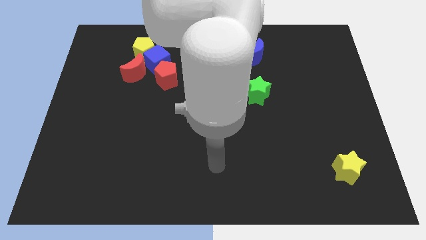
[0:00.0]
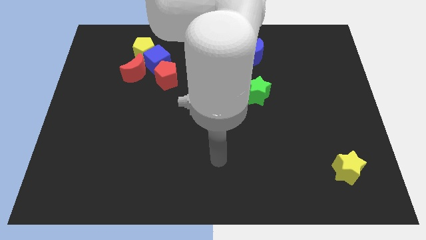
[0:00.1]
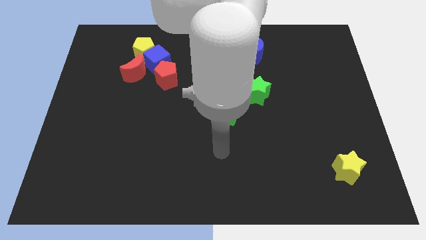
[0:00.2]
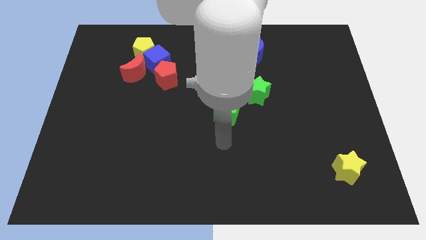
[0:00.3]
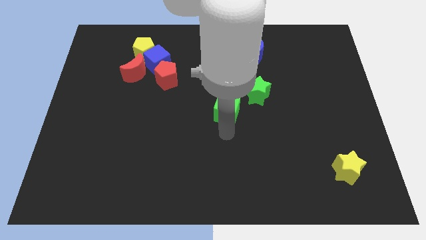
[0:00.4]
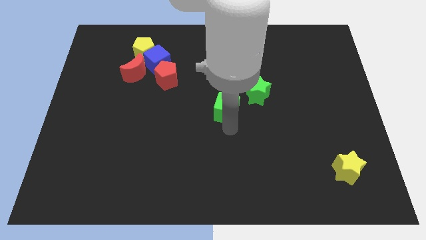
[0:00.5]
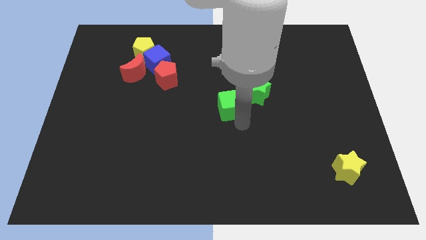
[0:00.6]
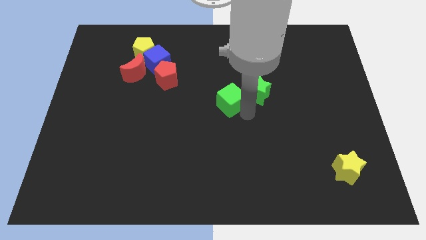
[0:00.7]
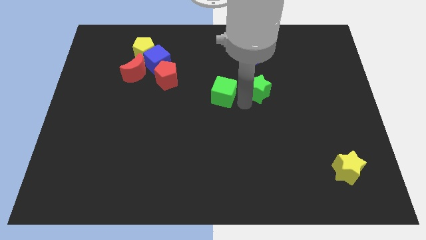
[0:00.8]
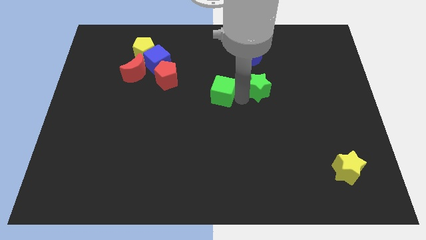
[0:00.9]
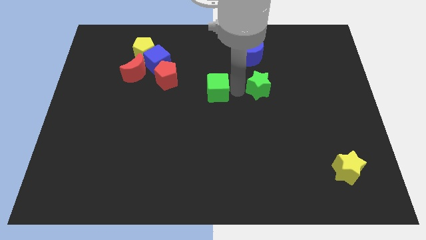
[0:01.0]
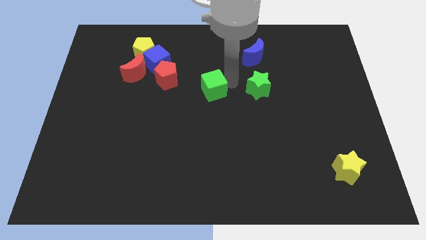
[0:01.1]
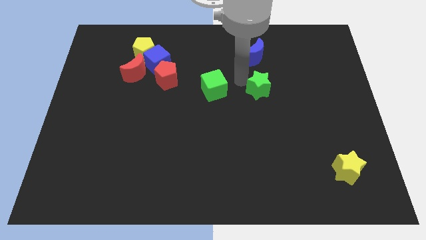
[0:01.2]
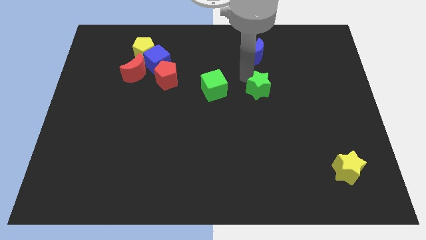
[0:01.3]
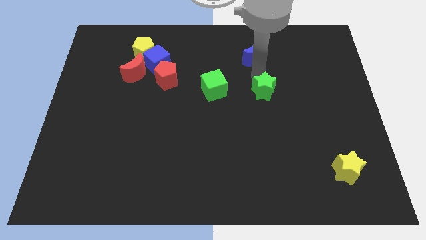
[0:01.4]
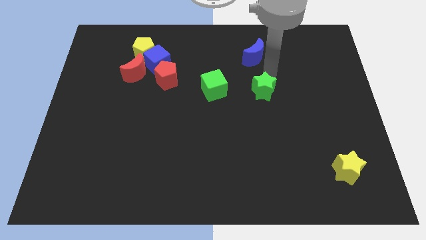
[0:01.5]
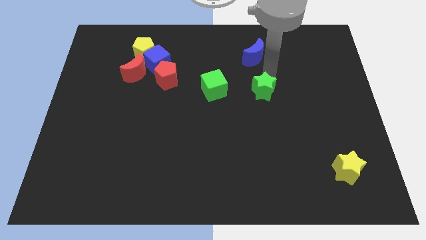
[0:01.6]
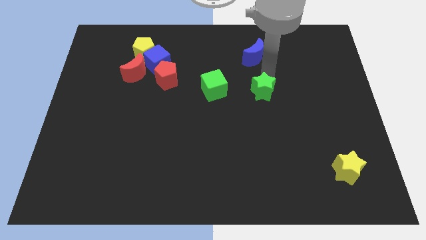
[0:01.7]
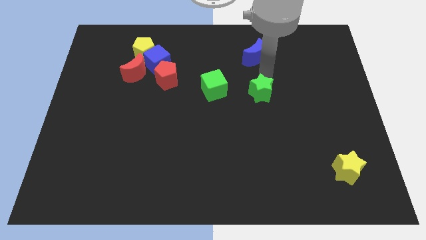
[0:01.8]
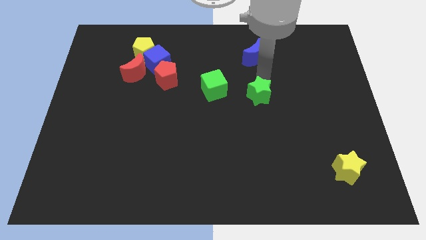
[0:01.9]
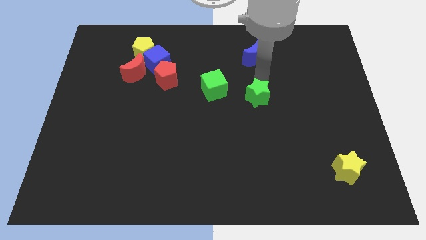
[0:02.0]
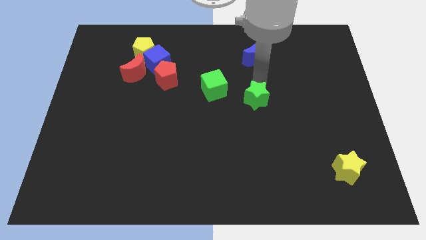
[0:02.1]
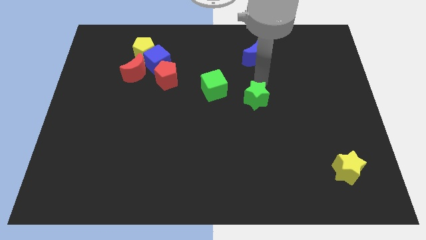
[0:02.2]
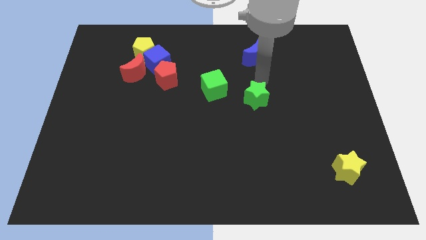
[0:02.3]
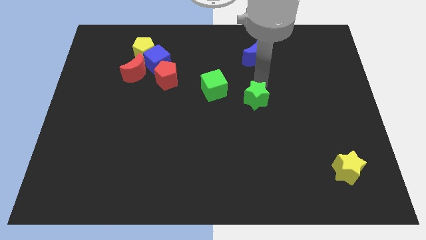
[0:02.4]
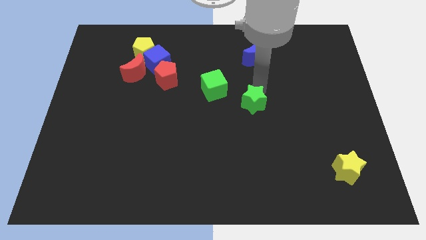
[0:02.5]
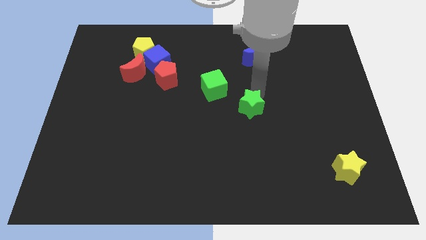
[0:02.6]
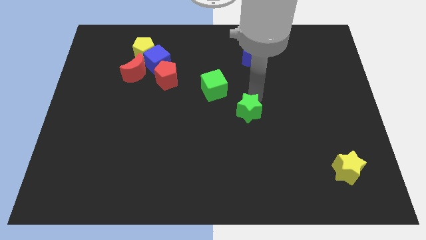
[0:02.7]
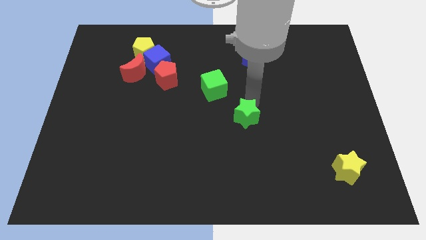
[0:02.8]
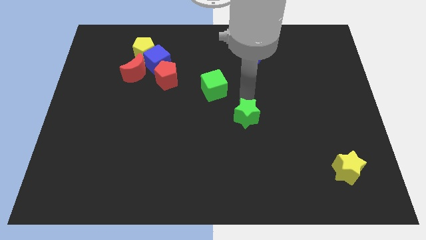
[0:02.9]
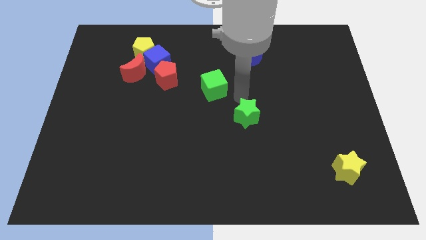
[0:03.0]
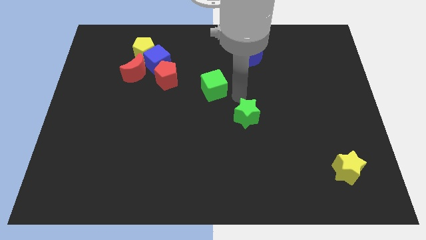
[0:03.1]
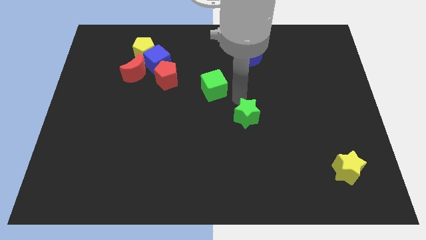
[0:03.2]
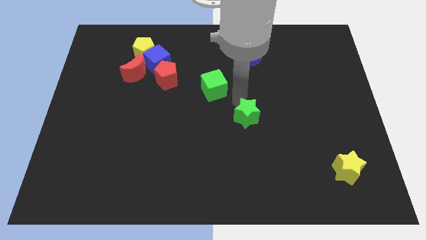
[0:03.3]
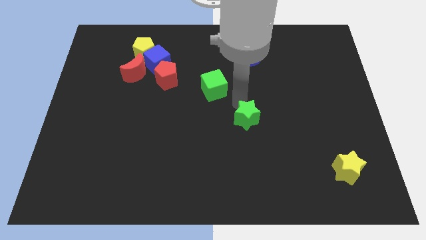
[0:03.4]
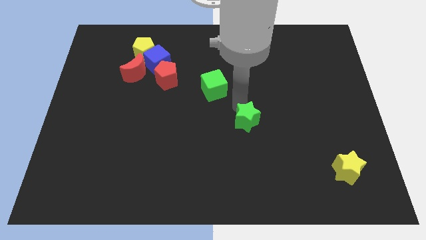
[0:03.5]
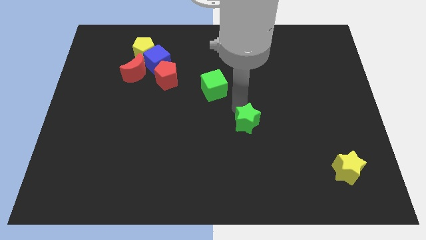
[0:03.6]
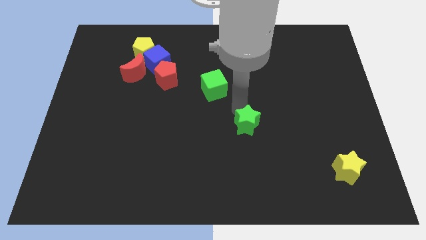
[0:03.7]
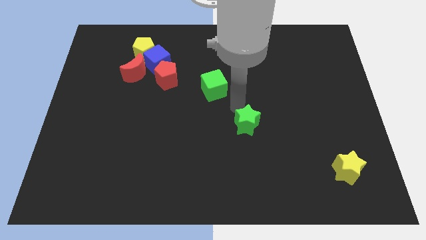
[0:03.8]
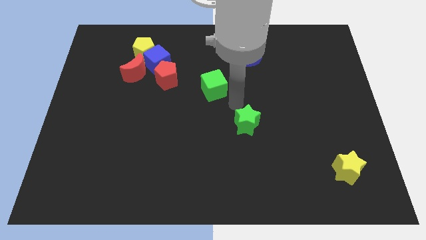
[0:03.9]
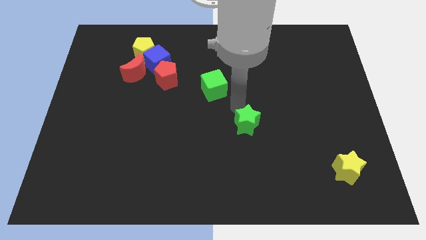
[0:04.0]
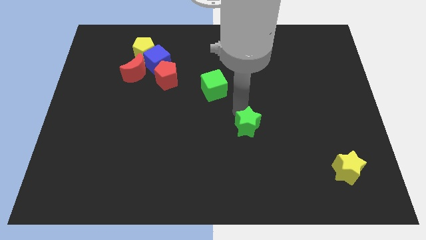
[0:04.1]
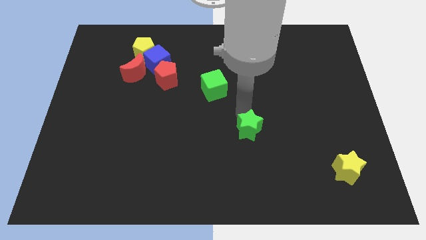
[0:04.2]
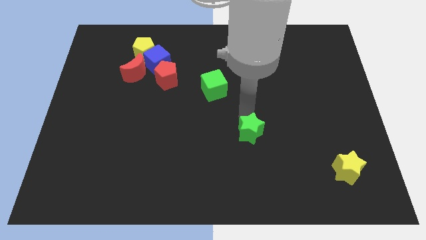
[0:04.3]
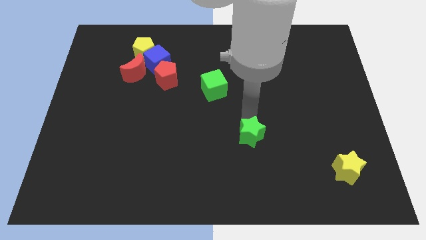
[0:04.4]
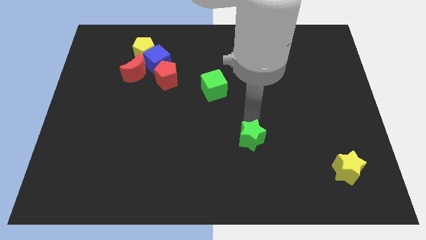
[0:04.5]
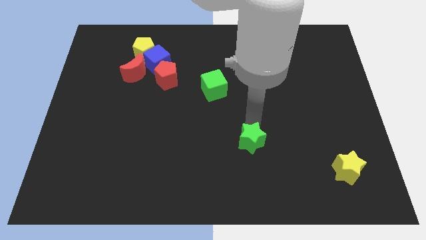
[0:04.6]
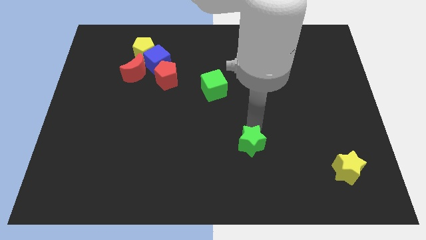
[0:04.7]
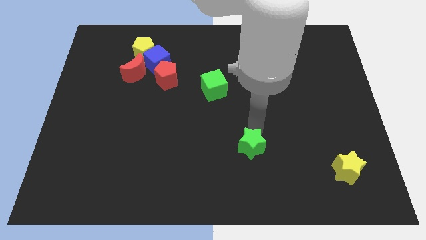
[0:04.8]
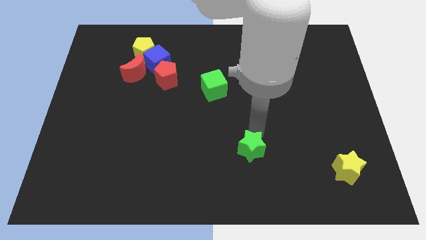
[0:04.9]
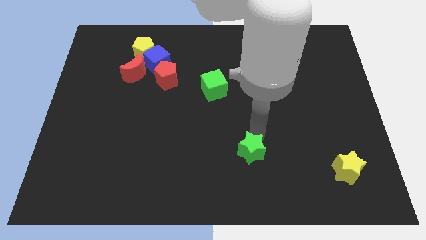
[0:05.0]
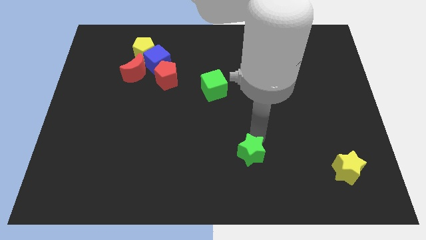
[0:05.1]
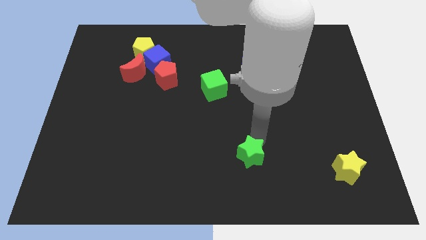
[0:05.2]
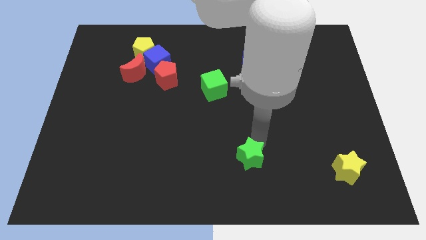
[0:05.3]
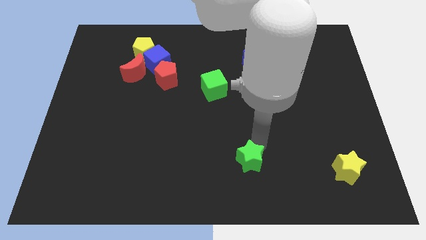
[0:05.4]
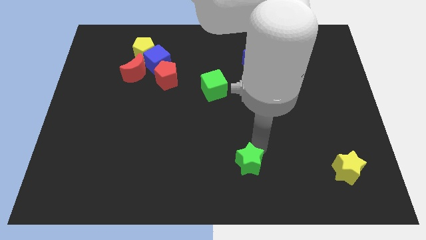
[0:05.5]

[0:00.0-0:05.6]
move the green star to the bottom side
